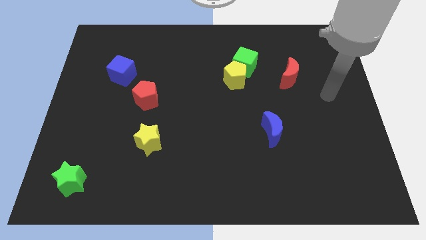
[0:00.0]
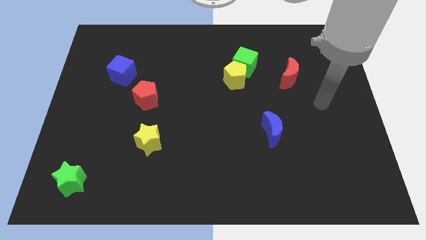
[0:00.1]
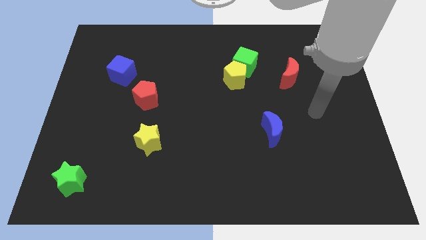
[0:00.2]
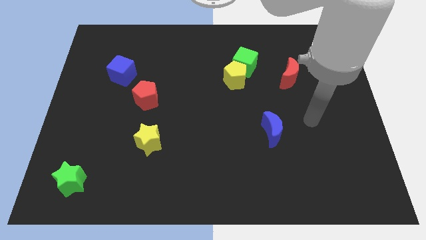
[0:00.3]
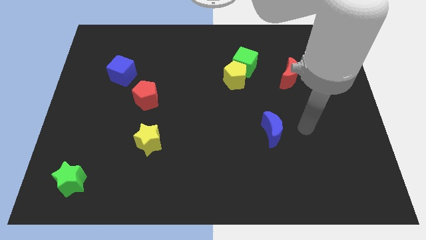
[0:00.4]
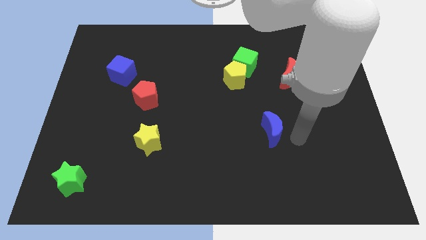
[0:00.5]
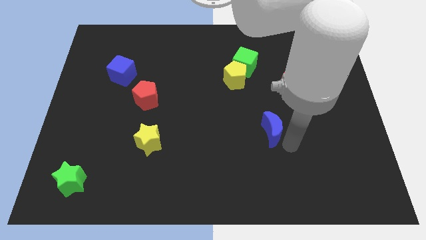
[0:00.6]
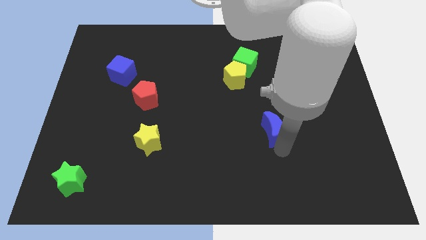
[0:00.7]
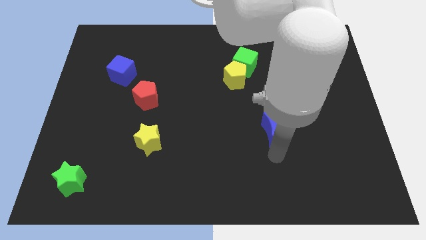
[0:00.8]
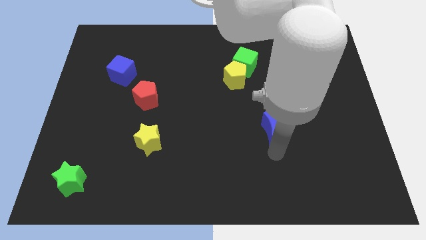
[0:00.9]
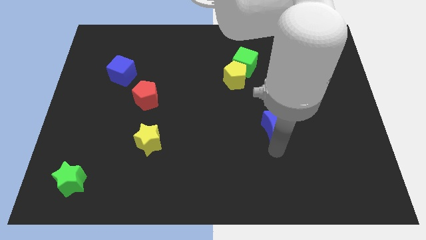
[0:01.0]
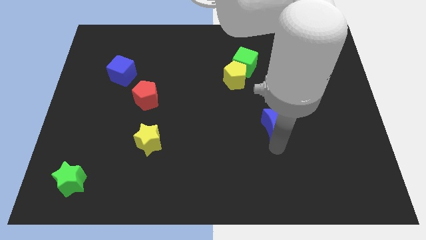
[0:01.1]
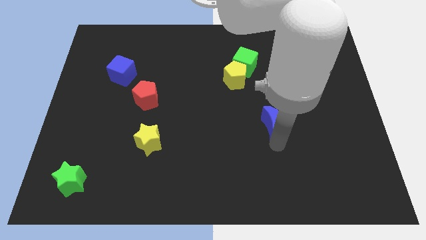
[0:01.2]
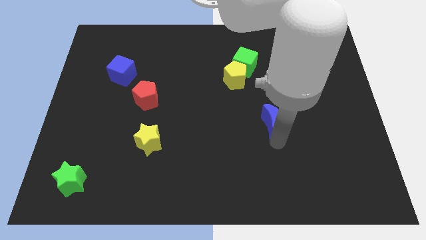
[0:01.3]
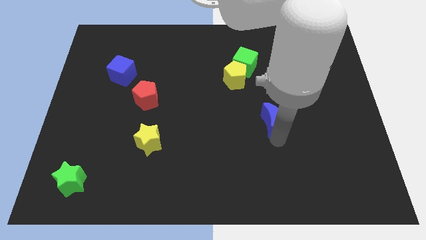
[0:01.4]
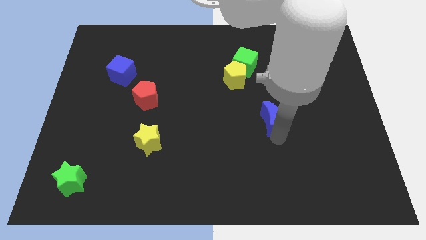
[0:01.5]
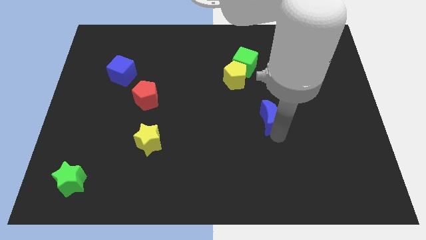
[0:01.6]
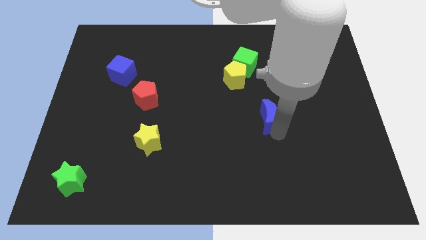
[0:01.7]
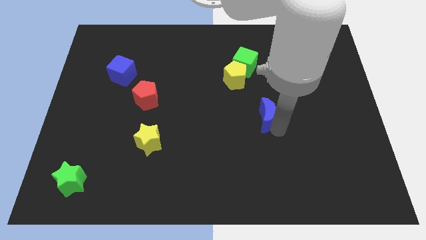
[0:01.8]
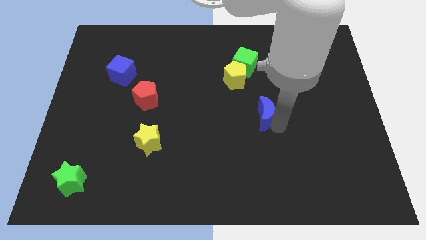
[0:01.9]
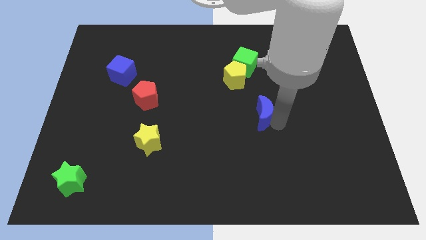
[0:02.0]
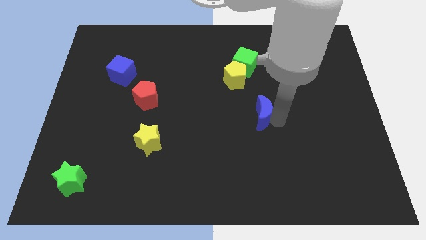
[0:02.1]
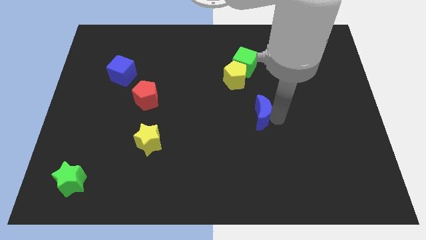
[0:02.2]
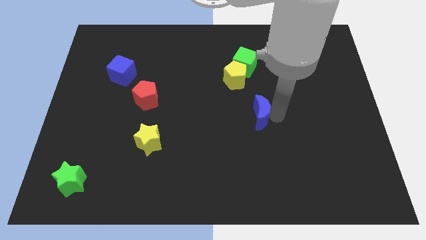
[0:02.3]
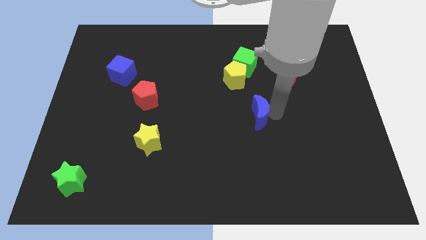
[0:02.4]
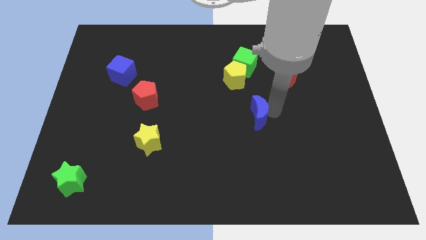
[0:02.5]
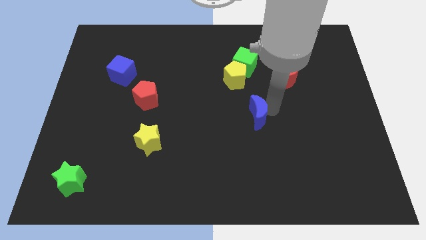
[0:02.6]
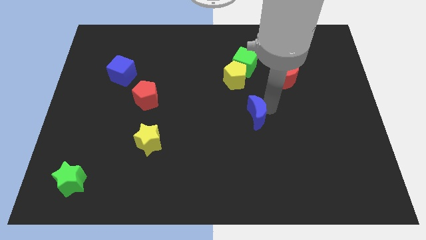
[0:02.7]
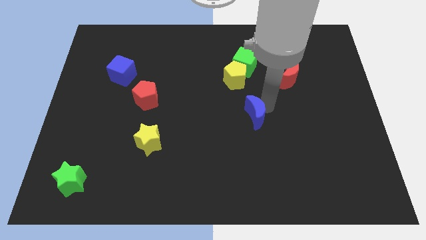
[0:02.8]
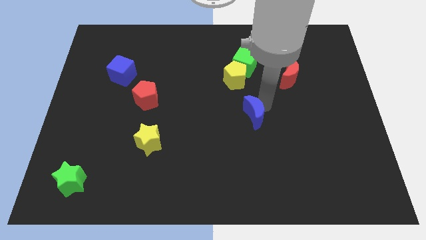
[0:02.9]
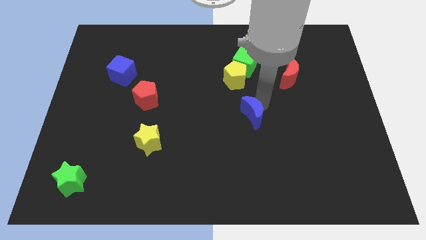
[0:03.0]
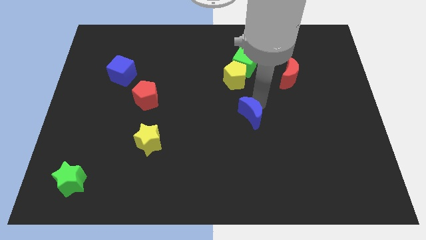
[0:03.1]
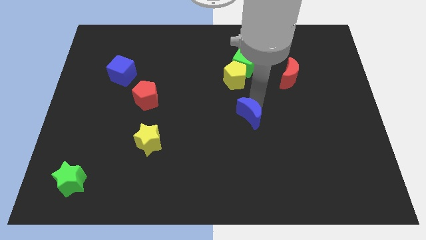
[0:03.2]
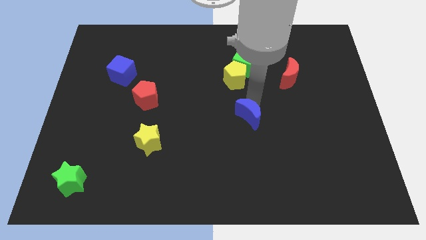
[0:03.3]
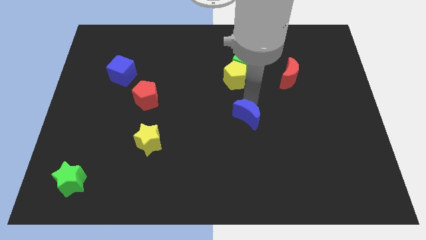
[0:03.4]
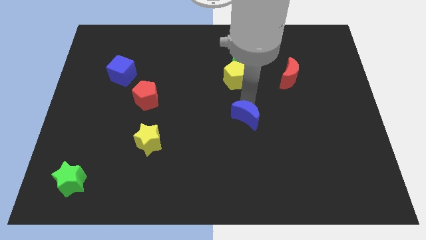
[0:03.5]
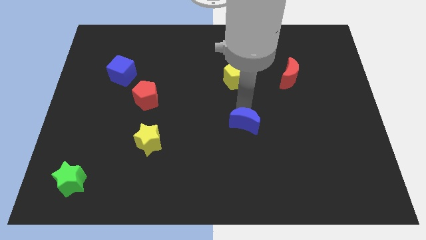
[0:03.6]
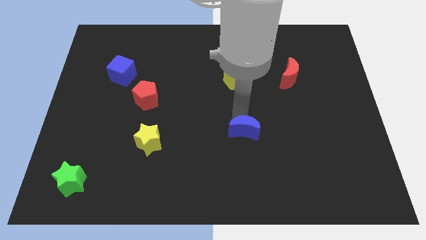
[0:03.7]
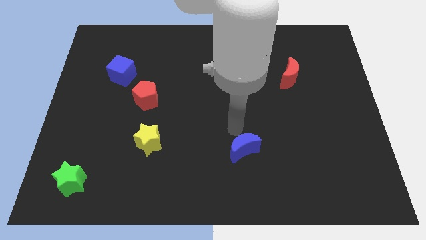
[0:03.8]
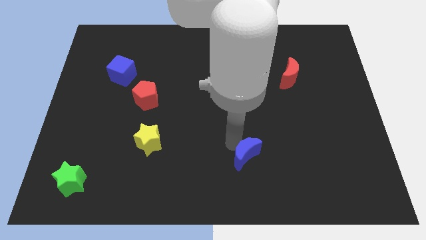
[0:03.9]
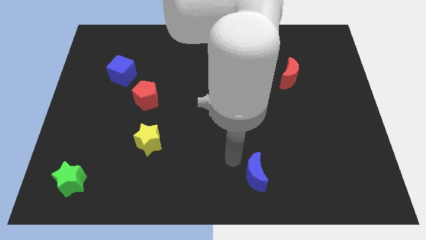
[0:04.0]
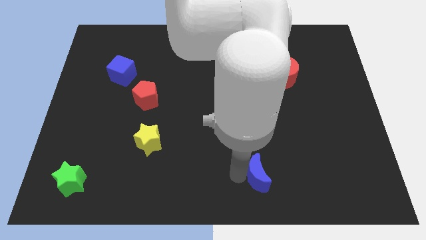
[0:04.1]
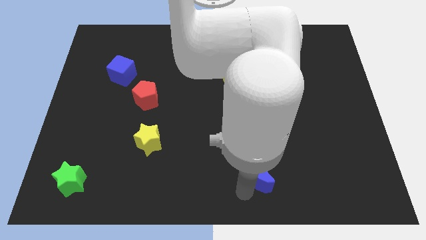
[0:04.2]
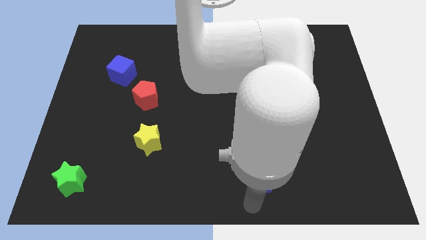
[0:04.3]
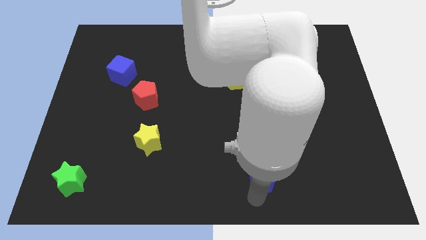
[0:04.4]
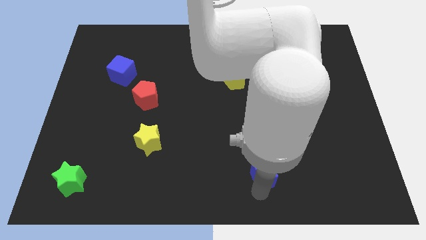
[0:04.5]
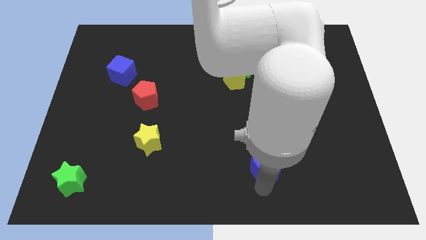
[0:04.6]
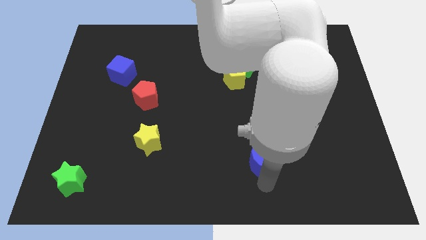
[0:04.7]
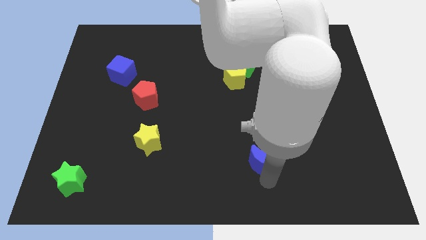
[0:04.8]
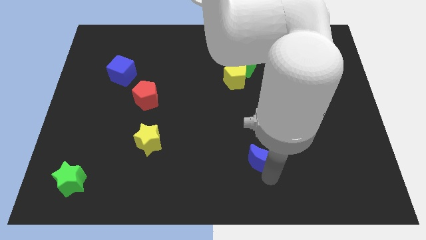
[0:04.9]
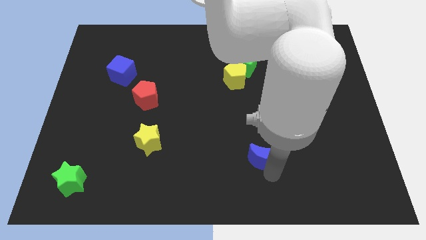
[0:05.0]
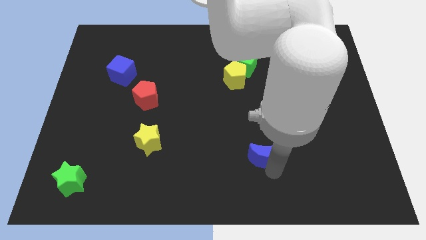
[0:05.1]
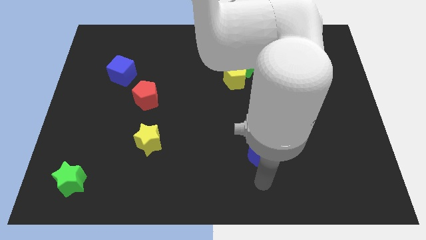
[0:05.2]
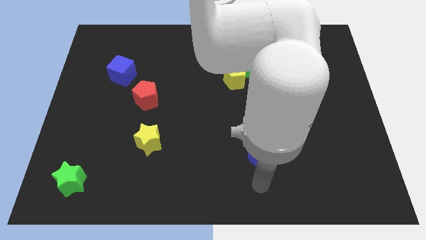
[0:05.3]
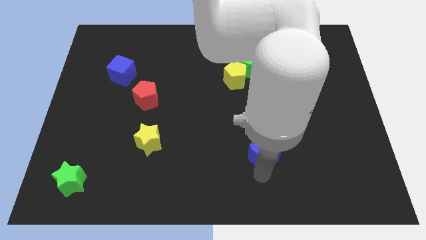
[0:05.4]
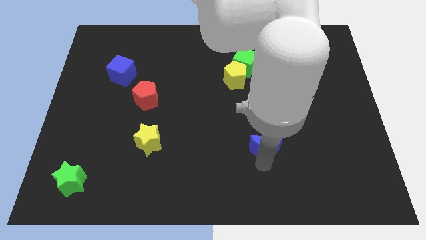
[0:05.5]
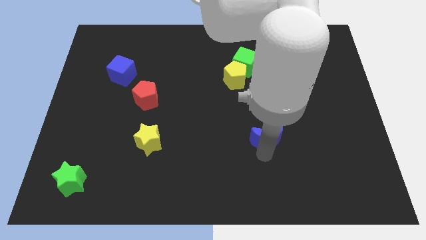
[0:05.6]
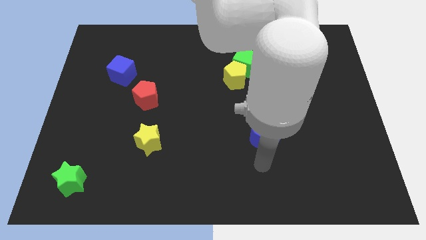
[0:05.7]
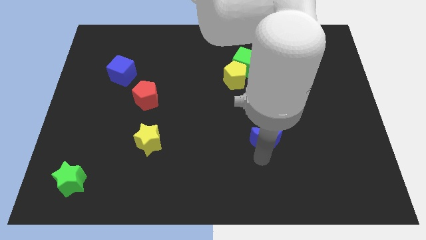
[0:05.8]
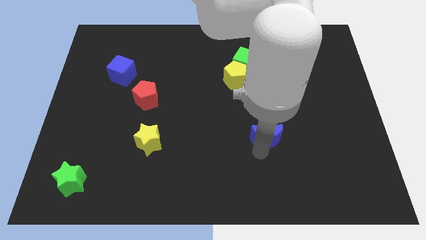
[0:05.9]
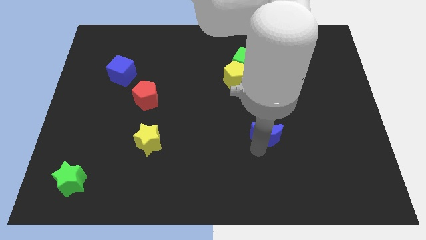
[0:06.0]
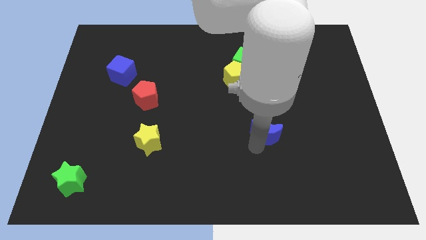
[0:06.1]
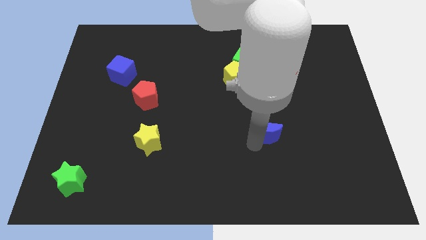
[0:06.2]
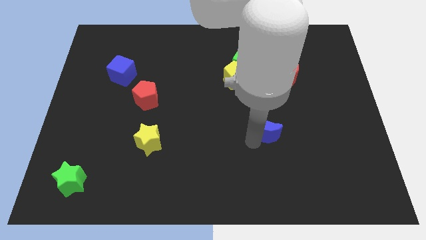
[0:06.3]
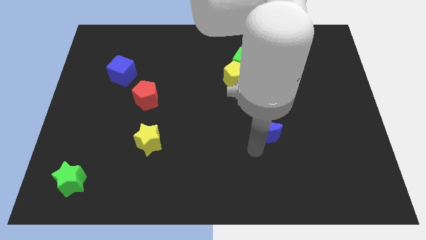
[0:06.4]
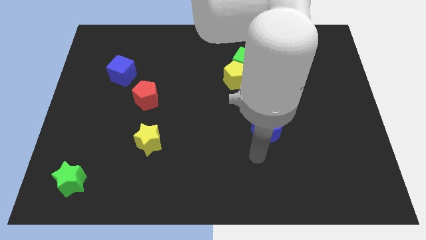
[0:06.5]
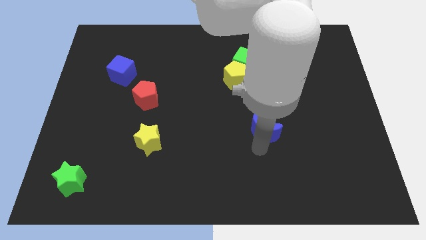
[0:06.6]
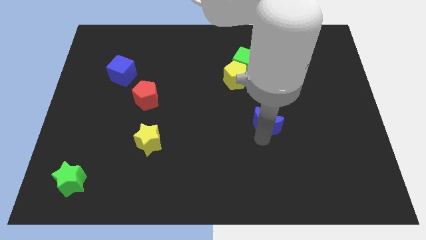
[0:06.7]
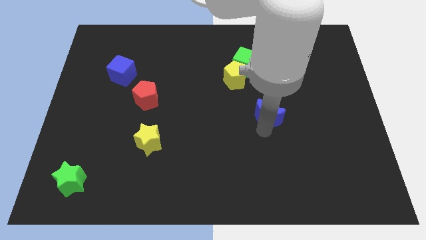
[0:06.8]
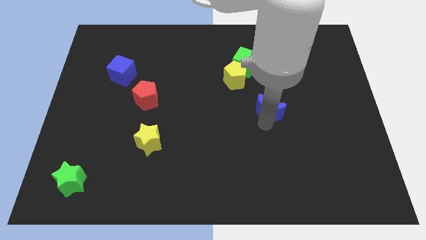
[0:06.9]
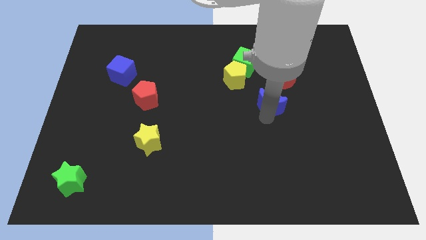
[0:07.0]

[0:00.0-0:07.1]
slightly slide the blue moon up

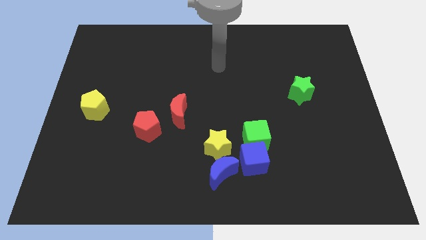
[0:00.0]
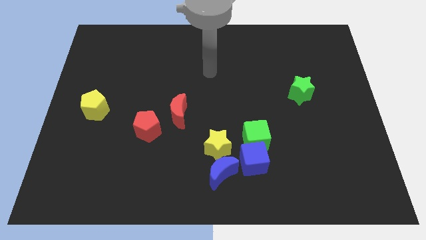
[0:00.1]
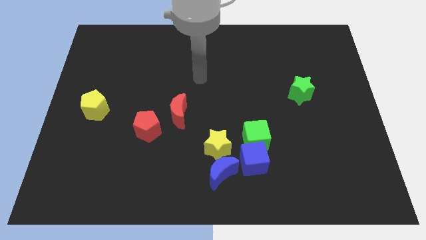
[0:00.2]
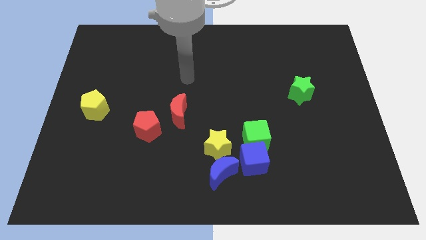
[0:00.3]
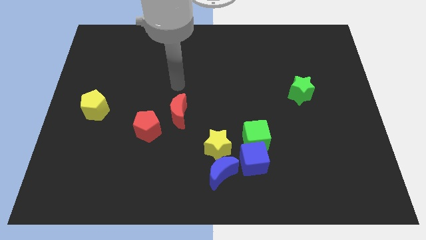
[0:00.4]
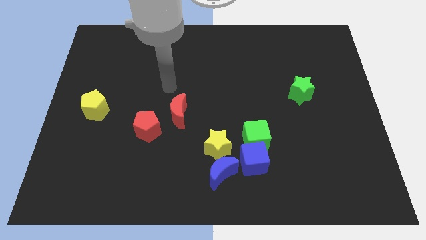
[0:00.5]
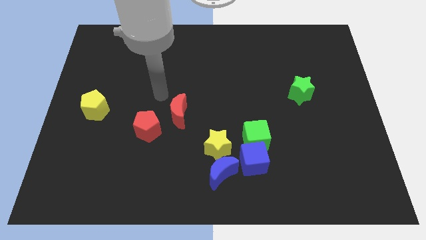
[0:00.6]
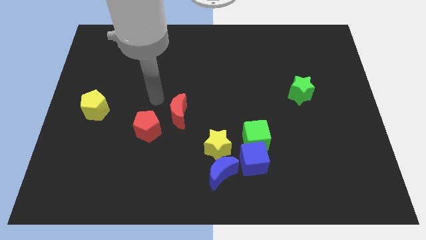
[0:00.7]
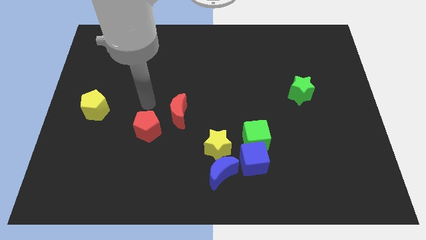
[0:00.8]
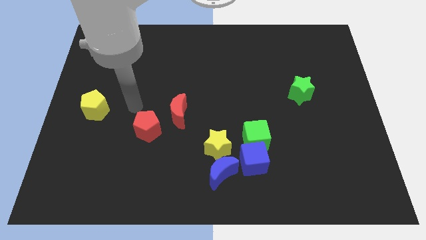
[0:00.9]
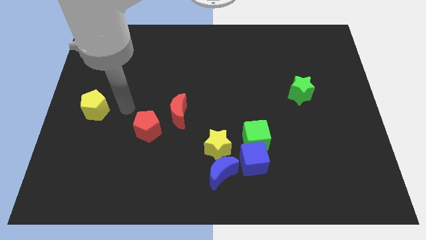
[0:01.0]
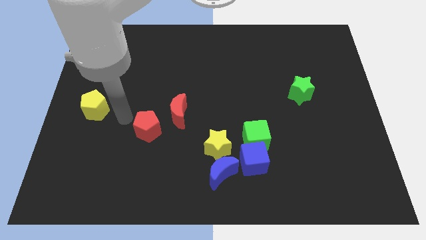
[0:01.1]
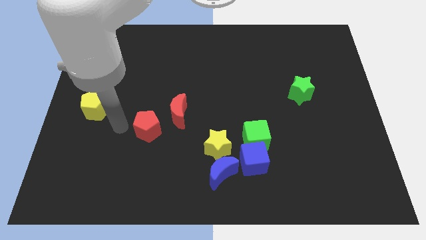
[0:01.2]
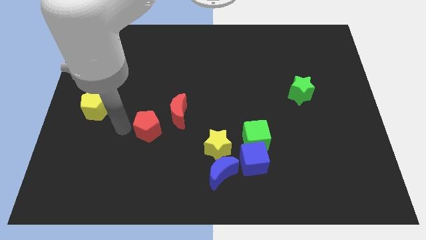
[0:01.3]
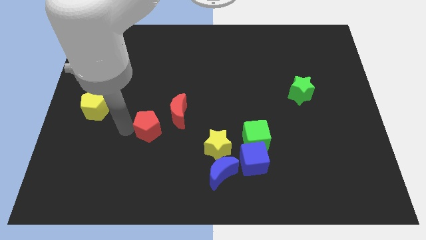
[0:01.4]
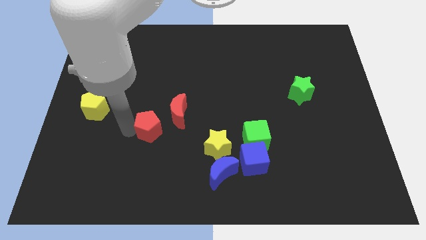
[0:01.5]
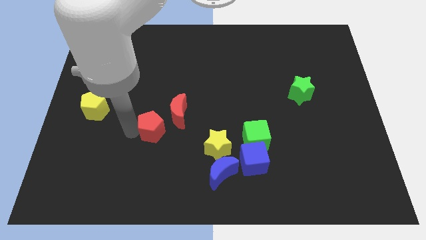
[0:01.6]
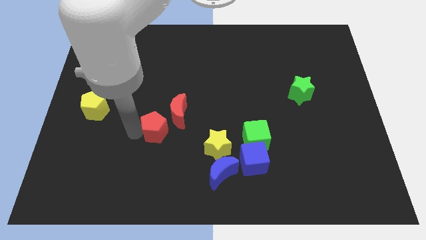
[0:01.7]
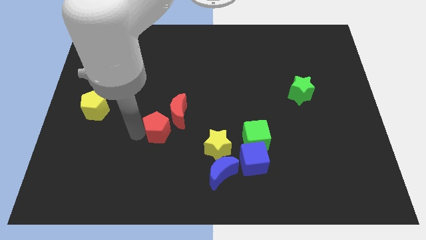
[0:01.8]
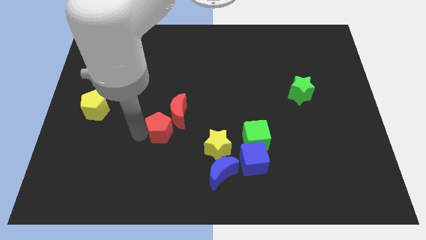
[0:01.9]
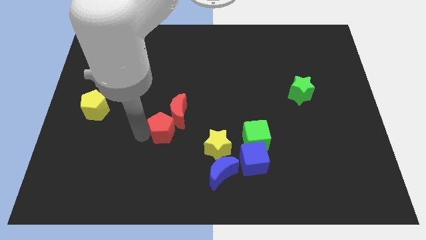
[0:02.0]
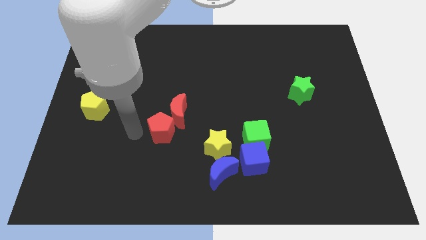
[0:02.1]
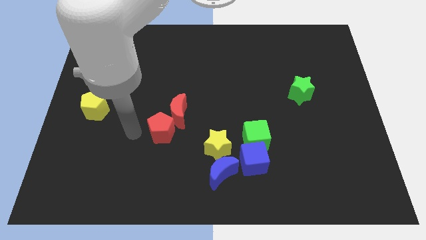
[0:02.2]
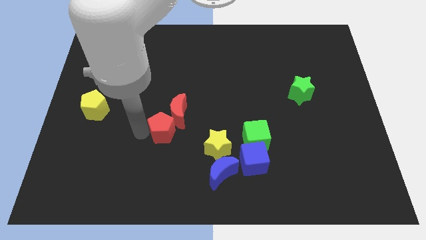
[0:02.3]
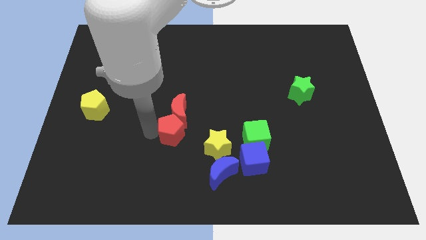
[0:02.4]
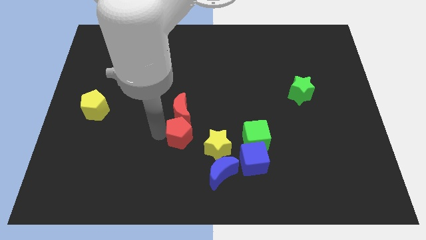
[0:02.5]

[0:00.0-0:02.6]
slide the red pentagon to the right a little bit
